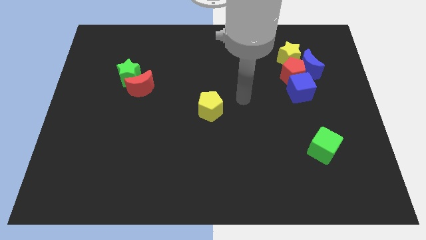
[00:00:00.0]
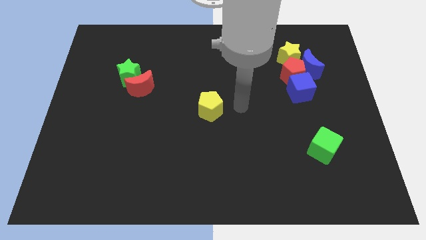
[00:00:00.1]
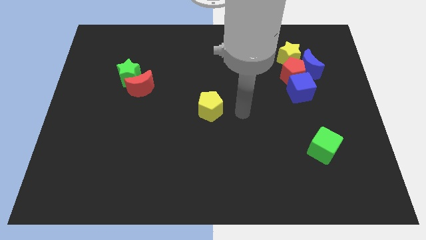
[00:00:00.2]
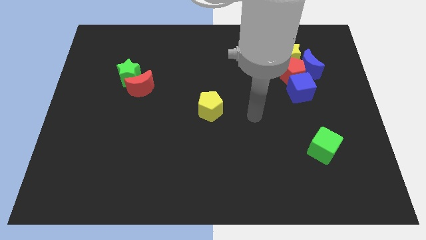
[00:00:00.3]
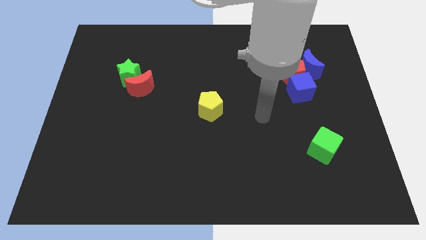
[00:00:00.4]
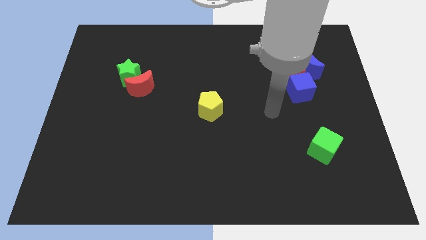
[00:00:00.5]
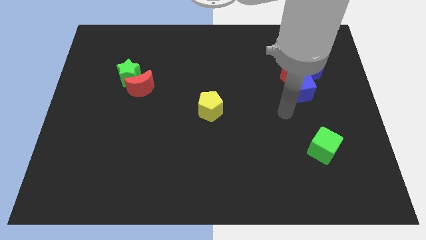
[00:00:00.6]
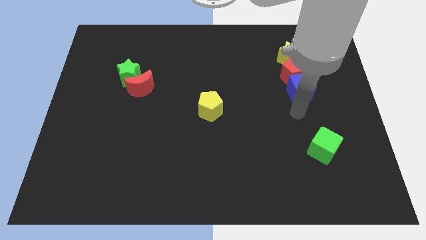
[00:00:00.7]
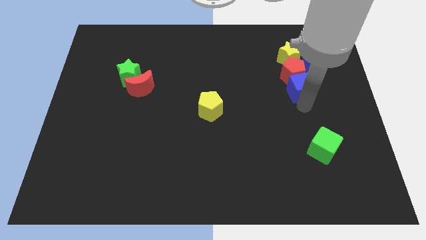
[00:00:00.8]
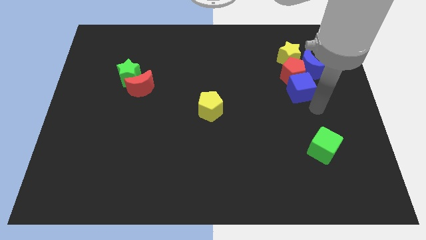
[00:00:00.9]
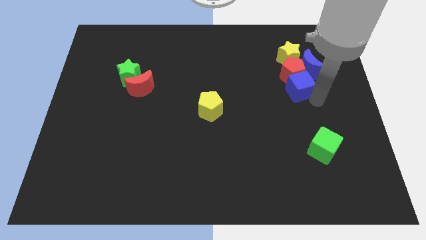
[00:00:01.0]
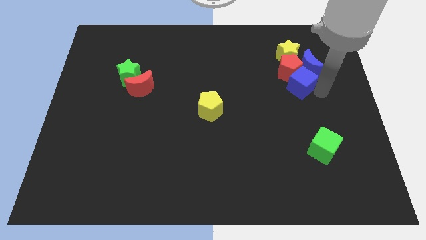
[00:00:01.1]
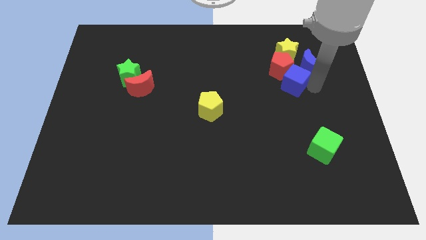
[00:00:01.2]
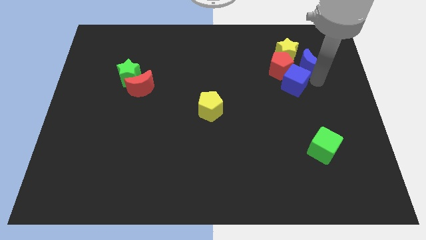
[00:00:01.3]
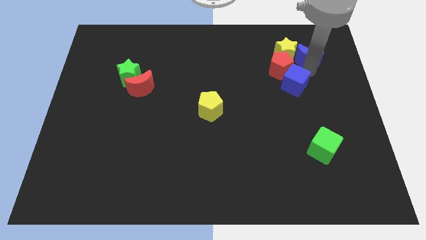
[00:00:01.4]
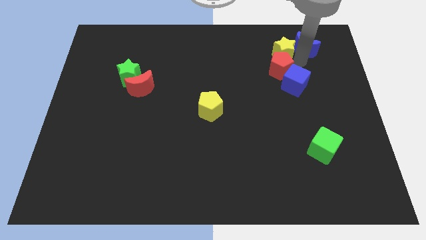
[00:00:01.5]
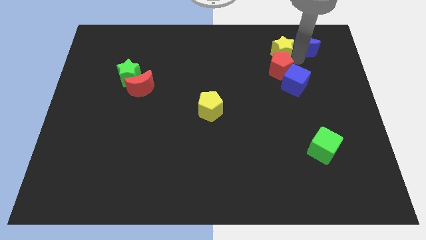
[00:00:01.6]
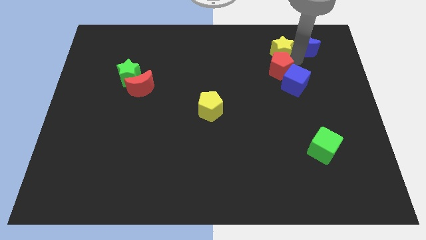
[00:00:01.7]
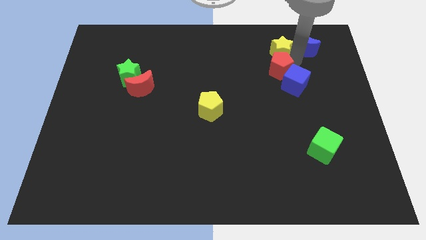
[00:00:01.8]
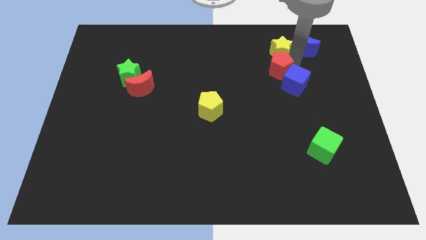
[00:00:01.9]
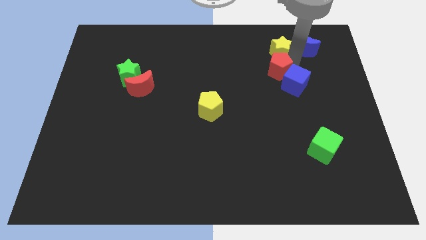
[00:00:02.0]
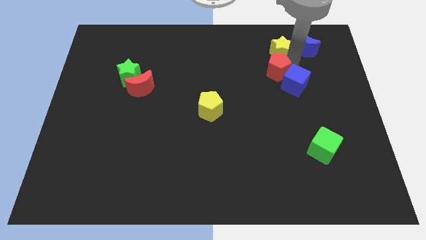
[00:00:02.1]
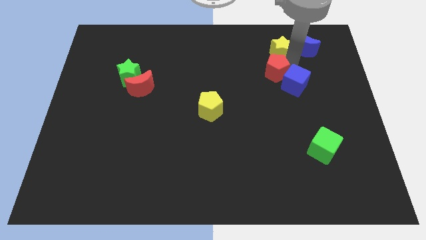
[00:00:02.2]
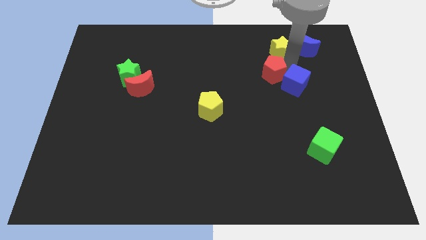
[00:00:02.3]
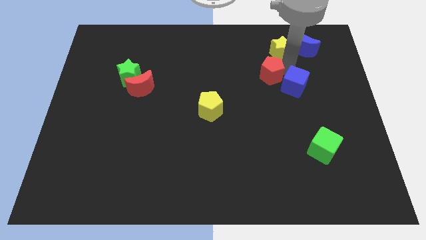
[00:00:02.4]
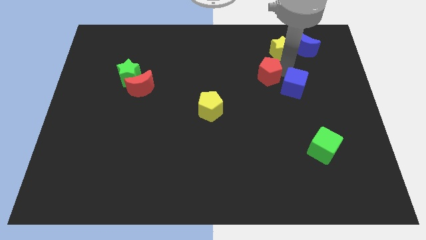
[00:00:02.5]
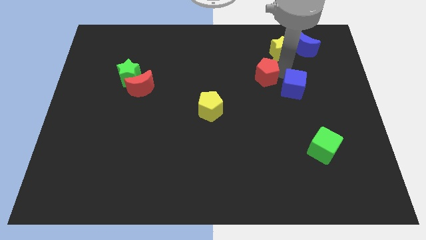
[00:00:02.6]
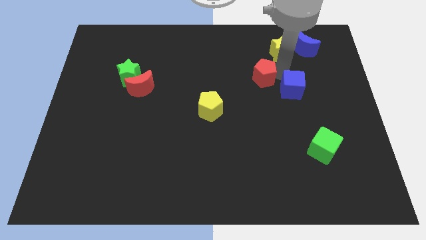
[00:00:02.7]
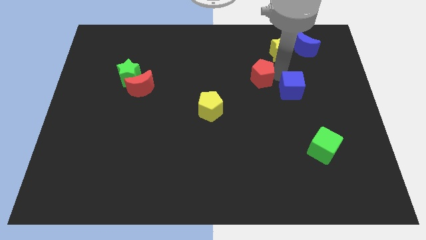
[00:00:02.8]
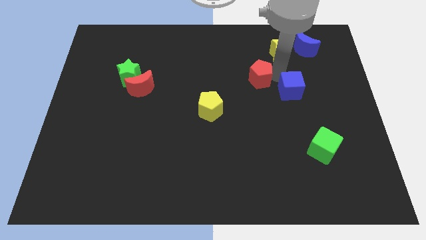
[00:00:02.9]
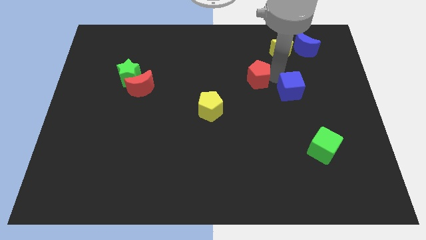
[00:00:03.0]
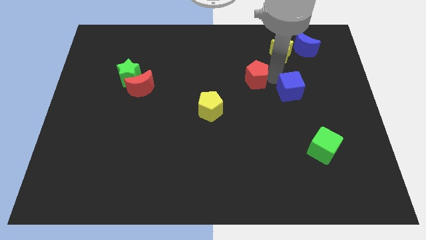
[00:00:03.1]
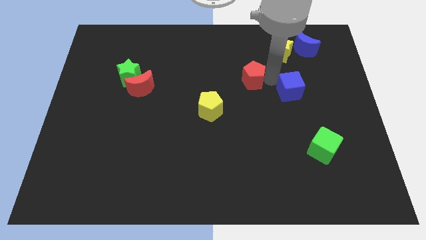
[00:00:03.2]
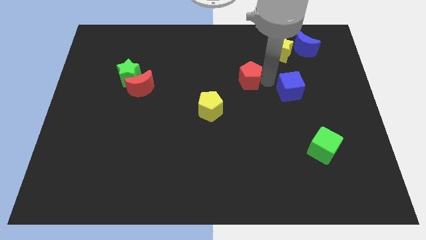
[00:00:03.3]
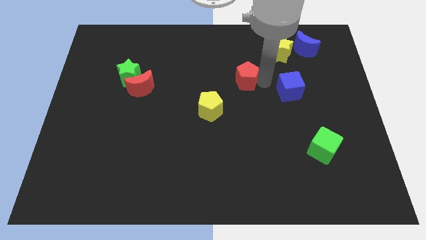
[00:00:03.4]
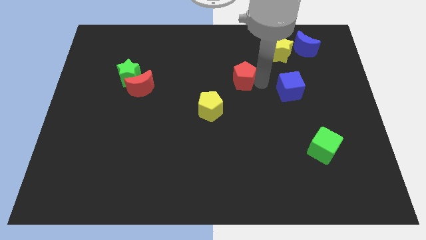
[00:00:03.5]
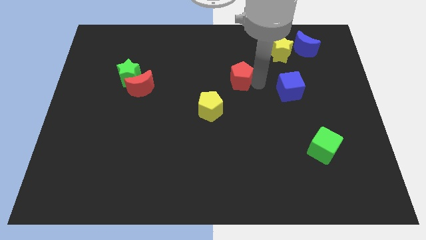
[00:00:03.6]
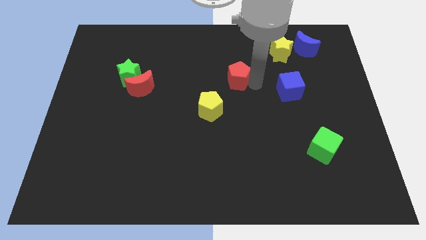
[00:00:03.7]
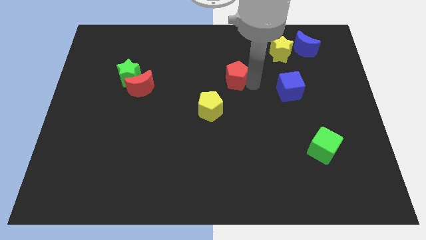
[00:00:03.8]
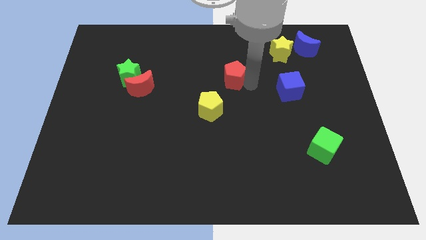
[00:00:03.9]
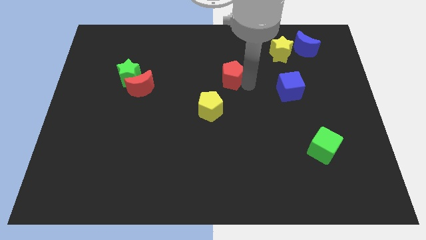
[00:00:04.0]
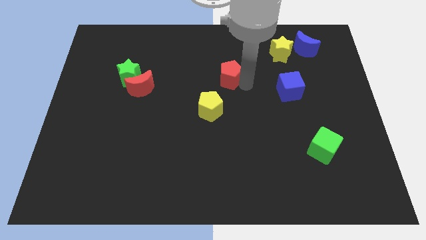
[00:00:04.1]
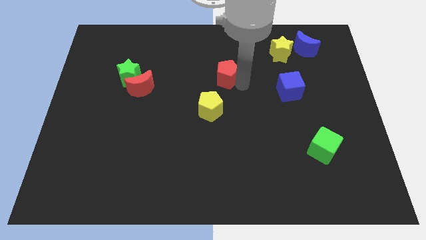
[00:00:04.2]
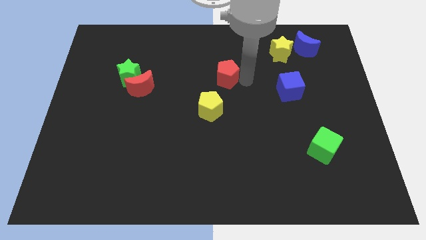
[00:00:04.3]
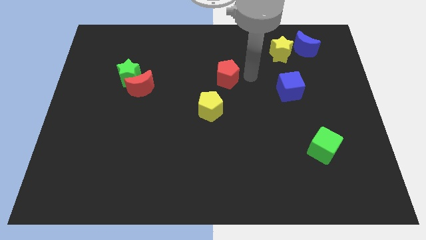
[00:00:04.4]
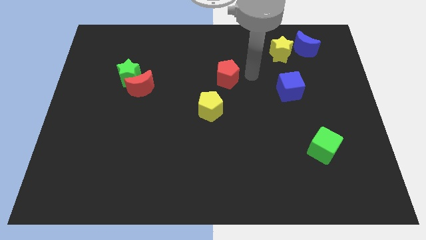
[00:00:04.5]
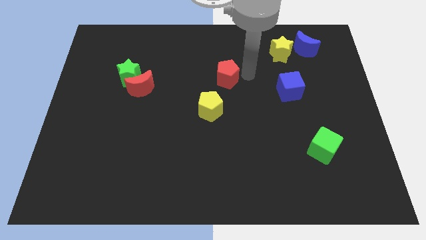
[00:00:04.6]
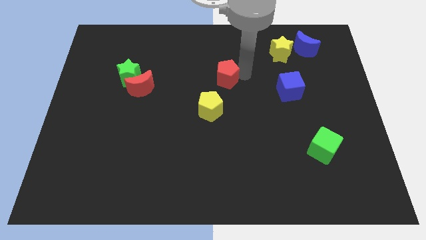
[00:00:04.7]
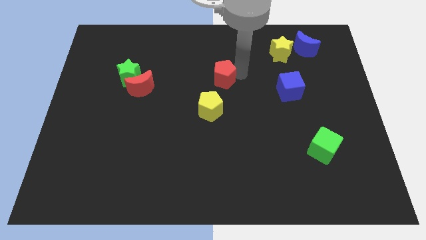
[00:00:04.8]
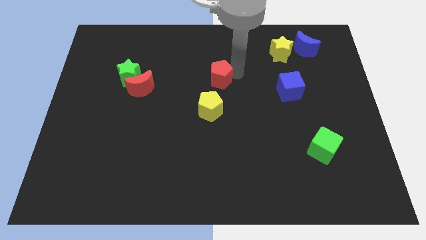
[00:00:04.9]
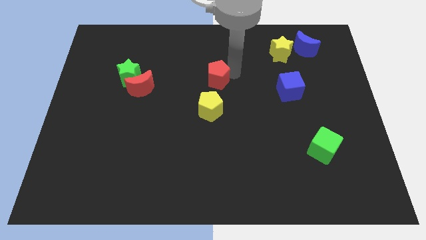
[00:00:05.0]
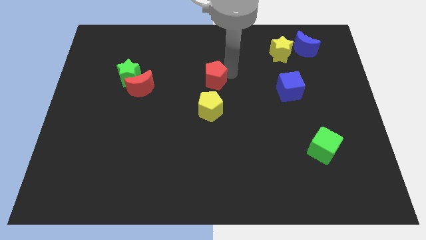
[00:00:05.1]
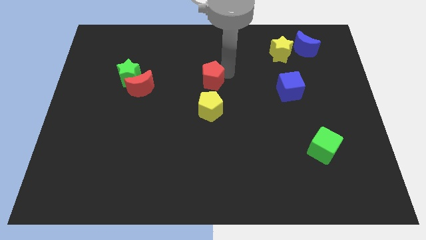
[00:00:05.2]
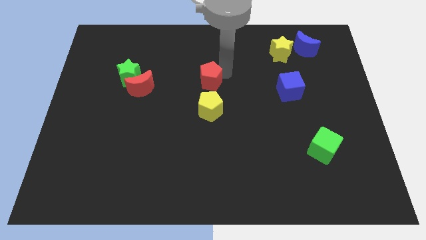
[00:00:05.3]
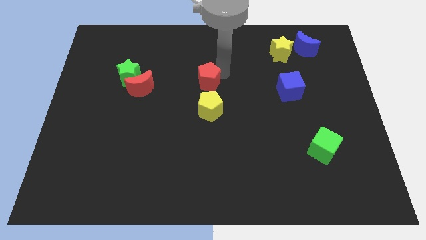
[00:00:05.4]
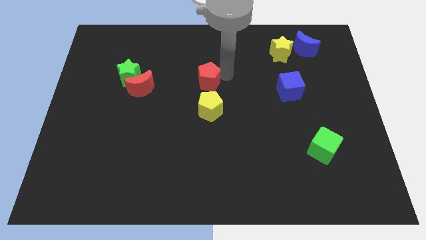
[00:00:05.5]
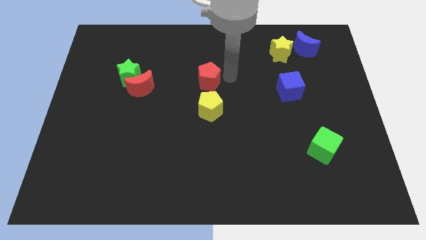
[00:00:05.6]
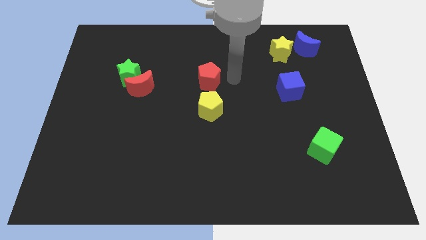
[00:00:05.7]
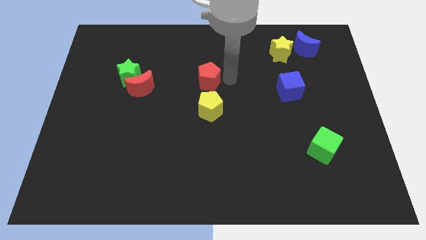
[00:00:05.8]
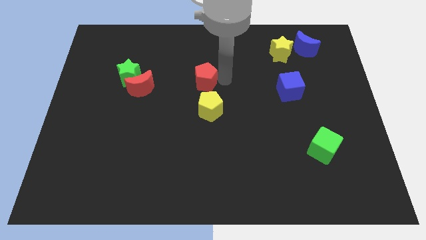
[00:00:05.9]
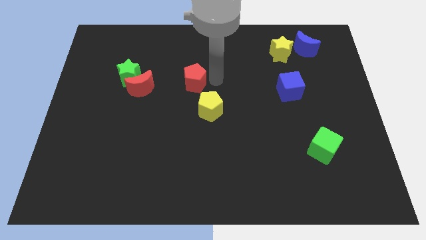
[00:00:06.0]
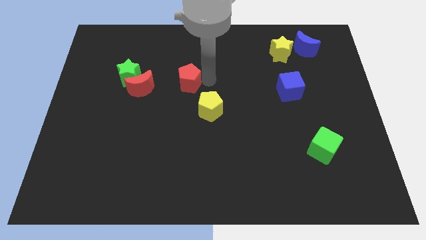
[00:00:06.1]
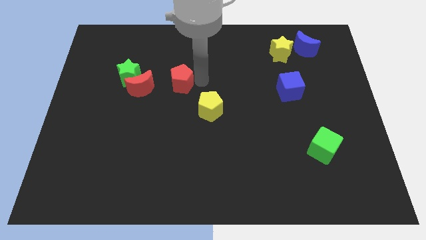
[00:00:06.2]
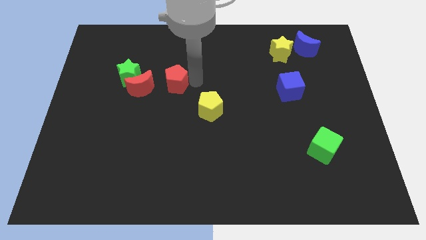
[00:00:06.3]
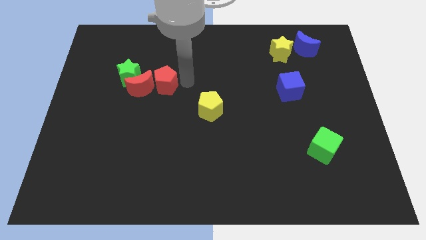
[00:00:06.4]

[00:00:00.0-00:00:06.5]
move the red pentagon next to the red moon
